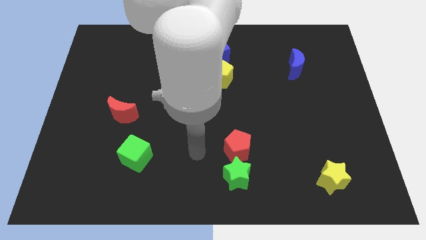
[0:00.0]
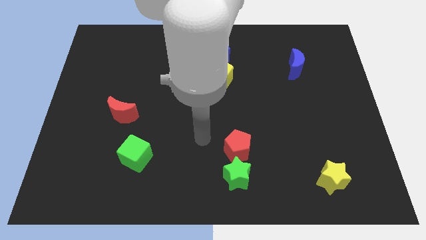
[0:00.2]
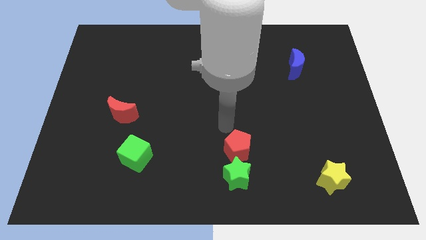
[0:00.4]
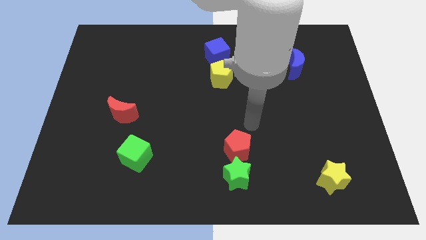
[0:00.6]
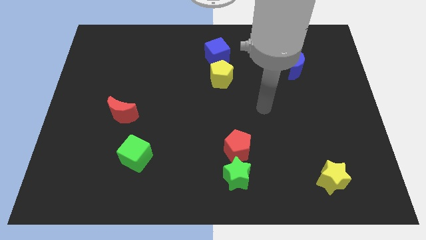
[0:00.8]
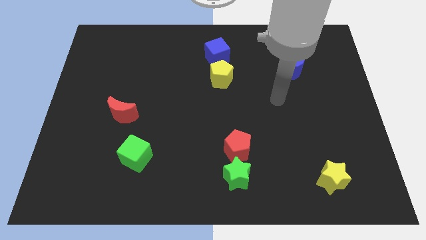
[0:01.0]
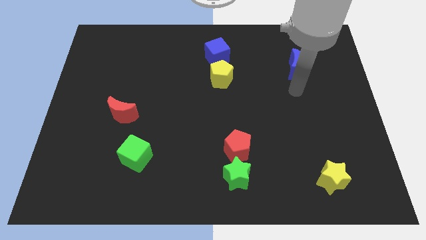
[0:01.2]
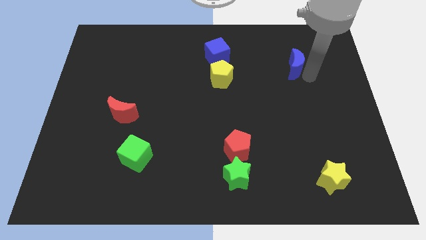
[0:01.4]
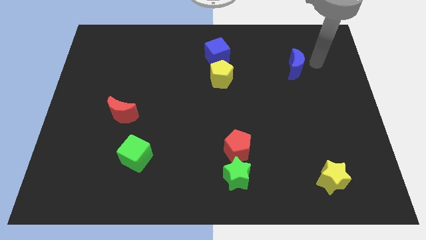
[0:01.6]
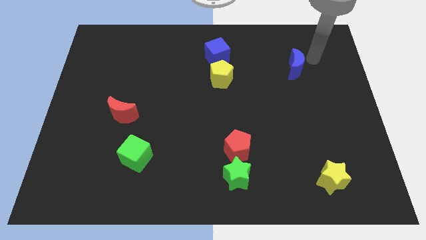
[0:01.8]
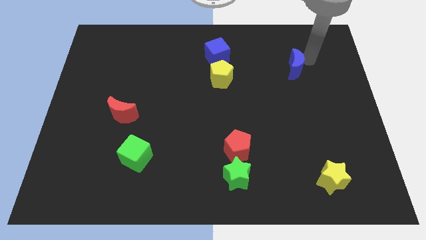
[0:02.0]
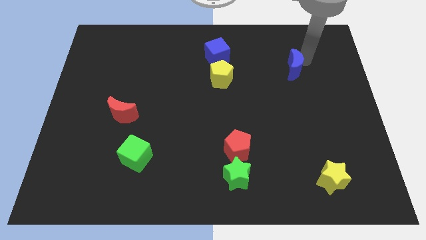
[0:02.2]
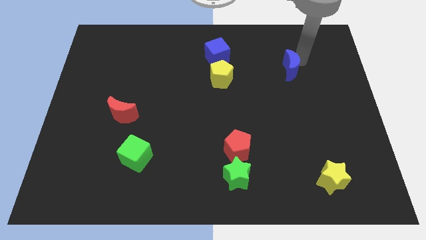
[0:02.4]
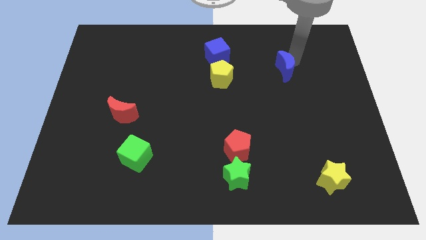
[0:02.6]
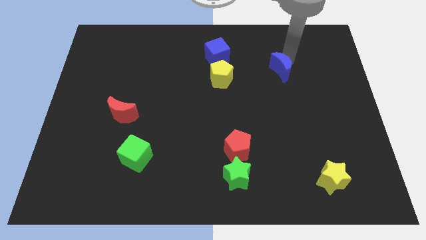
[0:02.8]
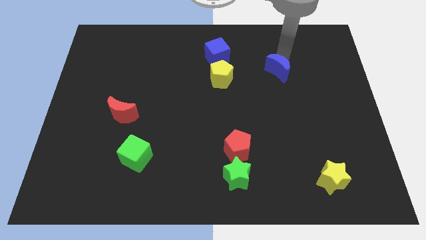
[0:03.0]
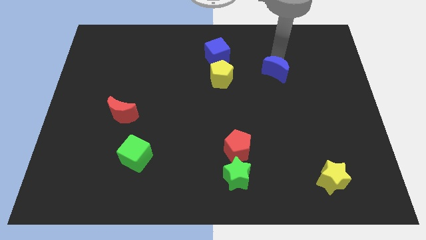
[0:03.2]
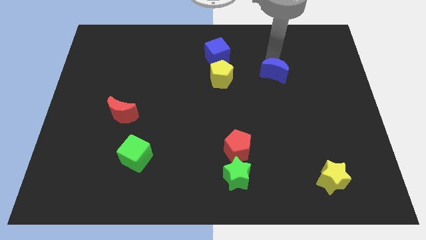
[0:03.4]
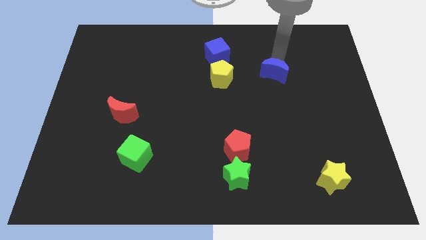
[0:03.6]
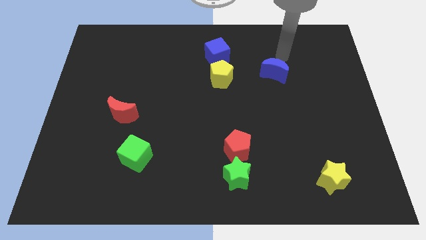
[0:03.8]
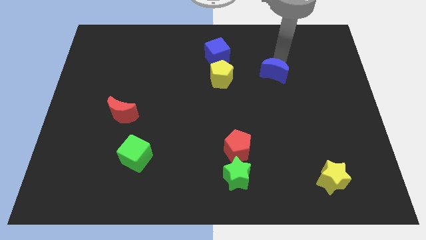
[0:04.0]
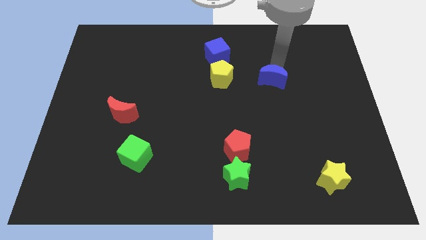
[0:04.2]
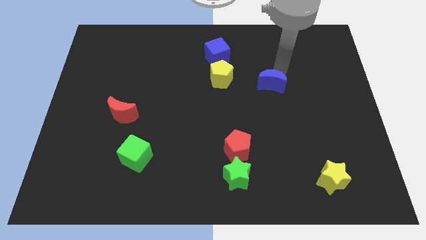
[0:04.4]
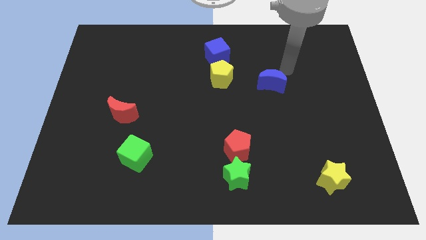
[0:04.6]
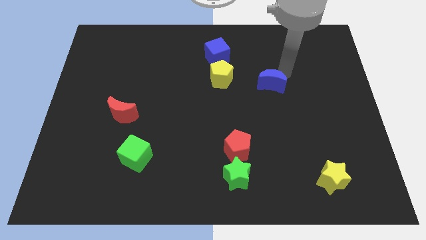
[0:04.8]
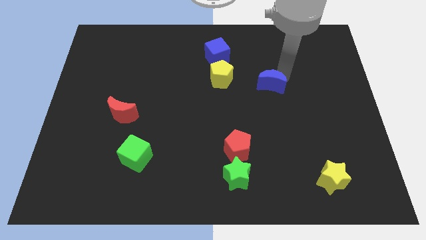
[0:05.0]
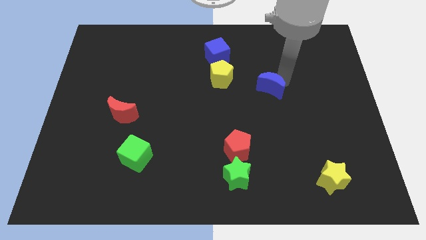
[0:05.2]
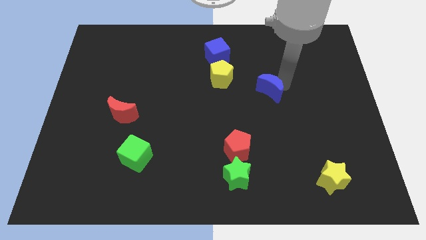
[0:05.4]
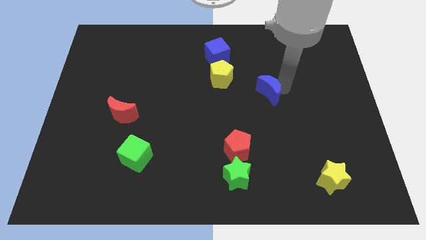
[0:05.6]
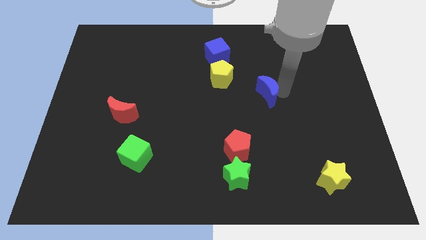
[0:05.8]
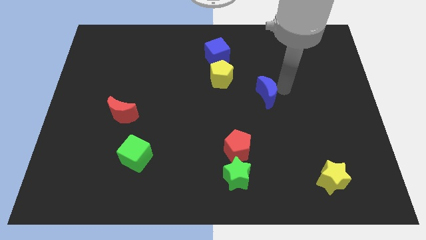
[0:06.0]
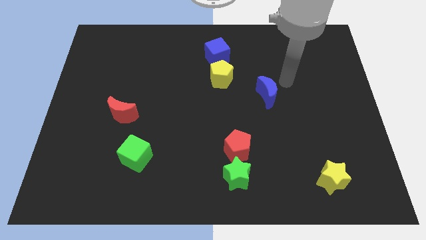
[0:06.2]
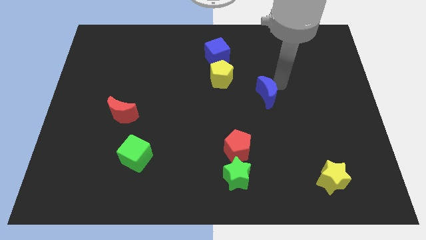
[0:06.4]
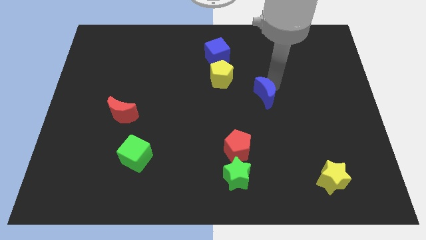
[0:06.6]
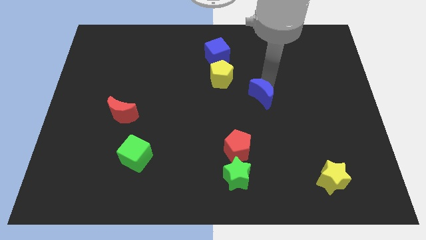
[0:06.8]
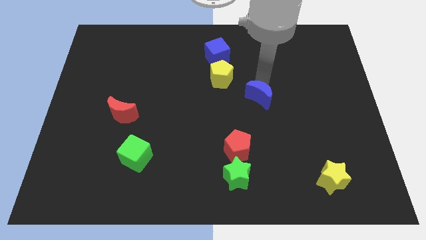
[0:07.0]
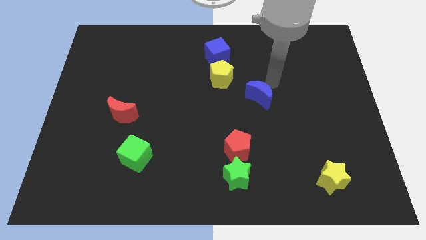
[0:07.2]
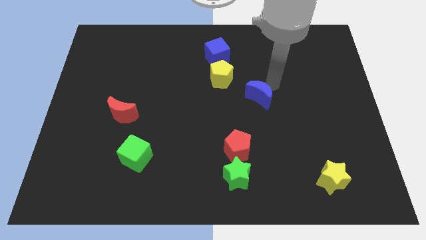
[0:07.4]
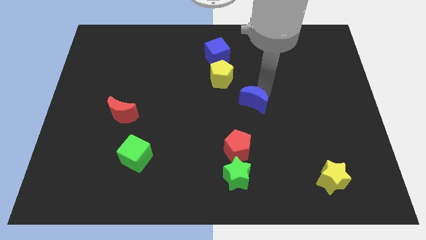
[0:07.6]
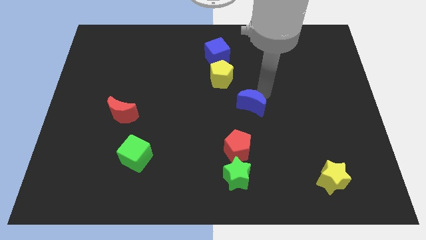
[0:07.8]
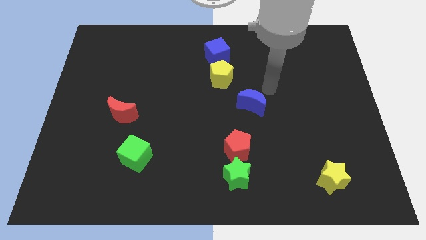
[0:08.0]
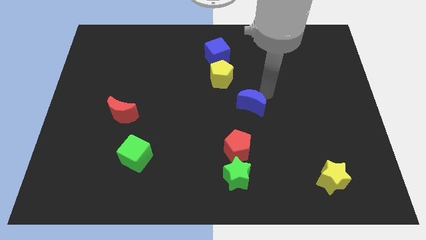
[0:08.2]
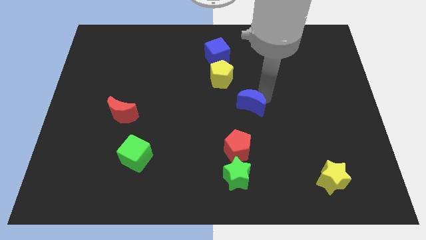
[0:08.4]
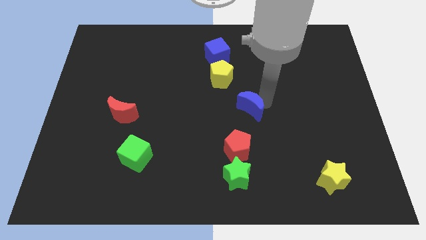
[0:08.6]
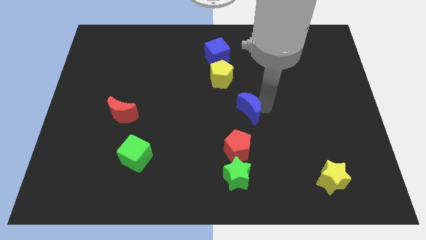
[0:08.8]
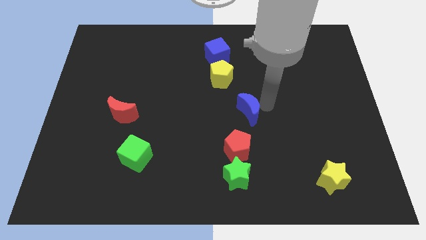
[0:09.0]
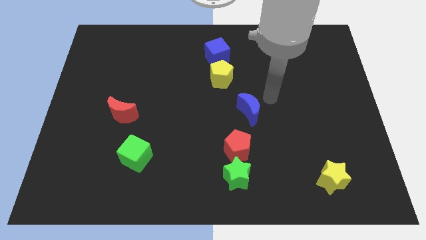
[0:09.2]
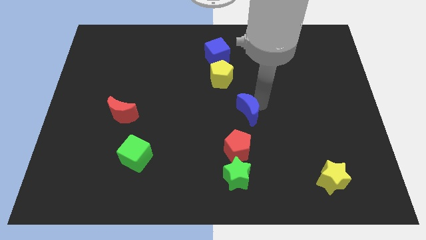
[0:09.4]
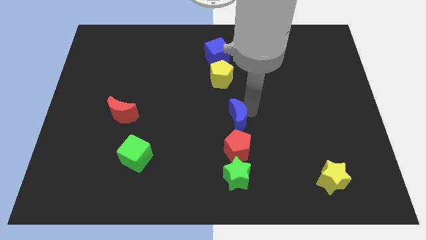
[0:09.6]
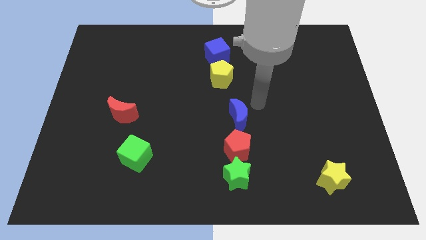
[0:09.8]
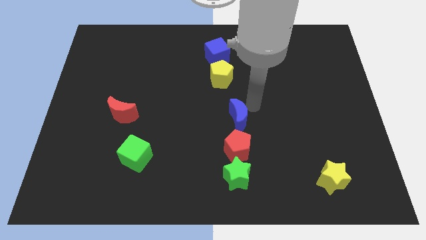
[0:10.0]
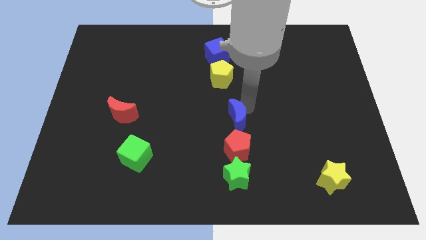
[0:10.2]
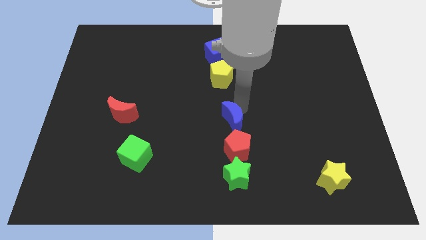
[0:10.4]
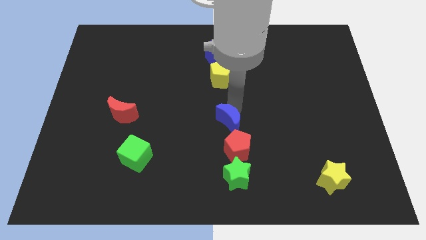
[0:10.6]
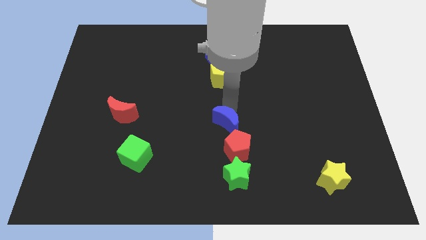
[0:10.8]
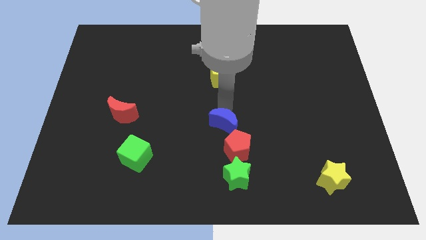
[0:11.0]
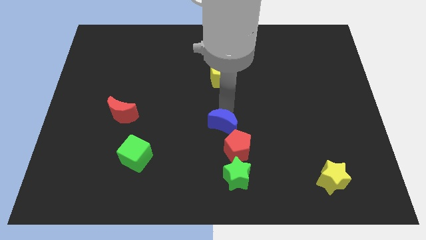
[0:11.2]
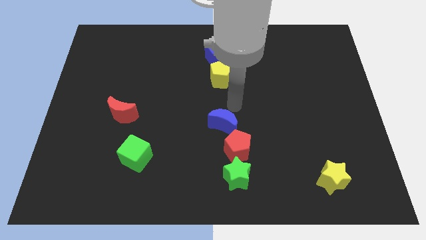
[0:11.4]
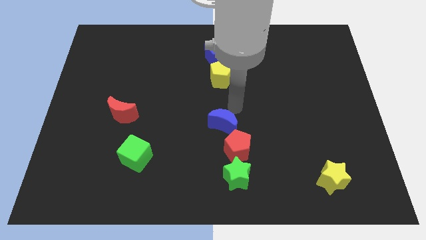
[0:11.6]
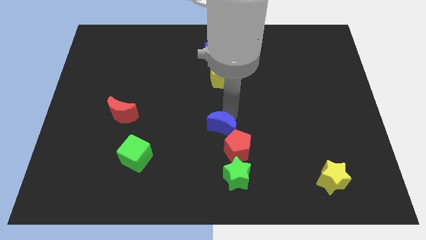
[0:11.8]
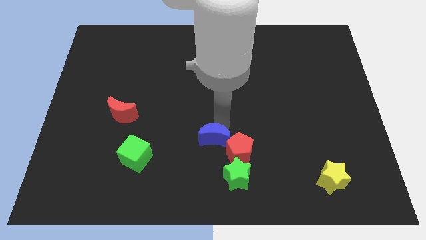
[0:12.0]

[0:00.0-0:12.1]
move the blue moon diagonally up and to the left of the green star
